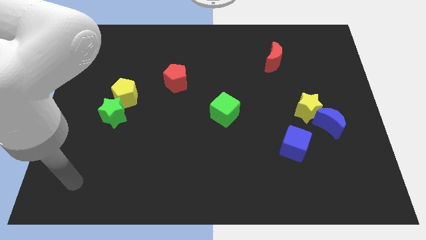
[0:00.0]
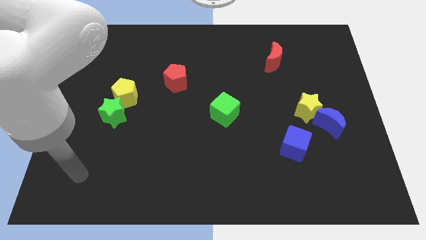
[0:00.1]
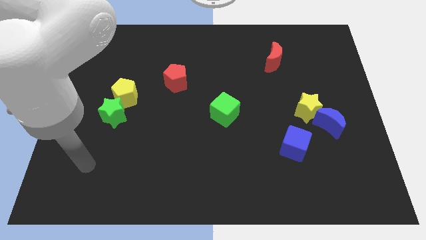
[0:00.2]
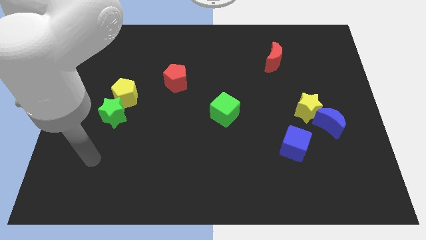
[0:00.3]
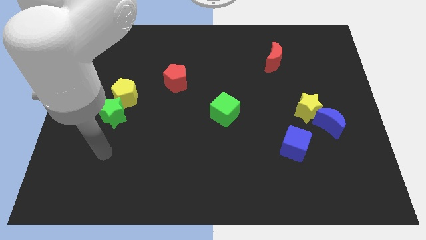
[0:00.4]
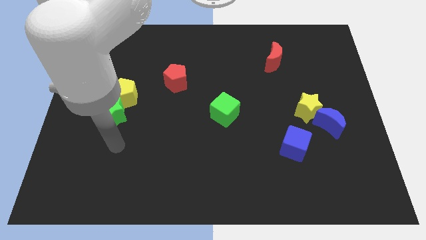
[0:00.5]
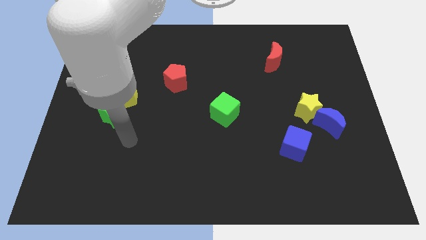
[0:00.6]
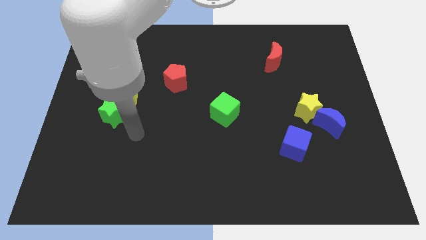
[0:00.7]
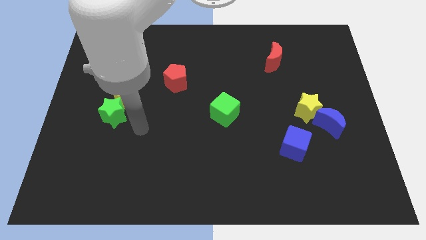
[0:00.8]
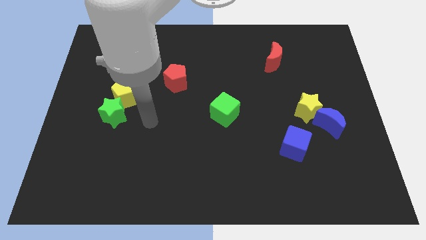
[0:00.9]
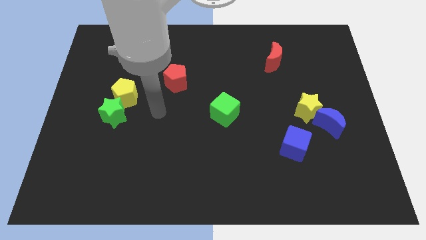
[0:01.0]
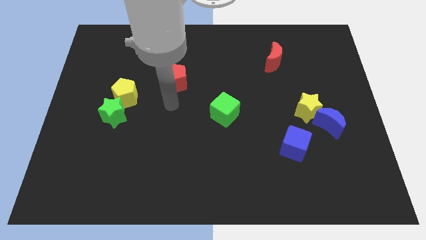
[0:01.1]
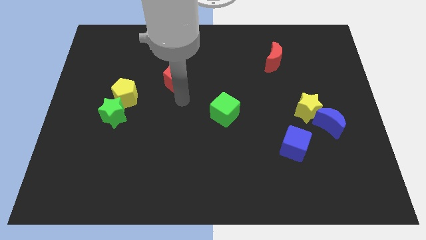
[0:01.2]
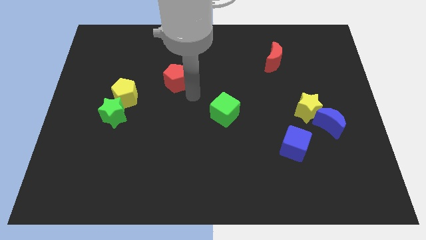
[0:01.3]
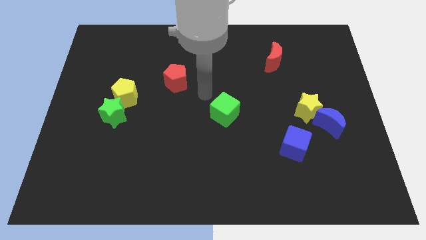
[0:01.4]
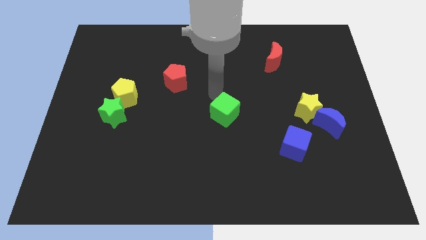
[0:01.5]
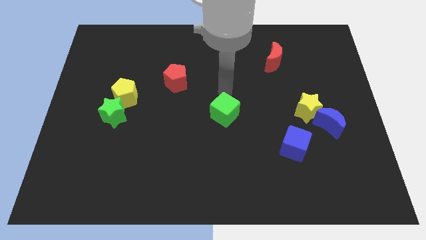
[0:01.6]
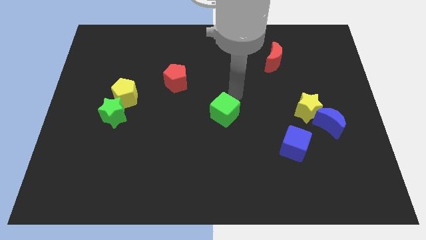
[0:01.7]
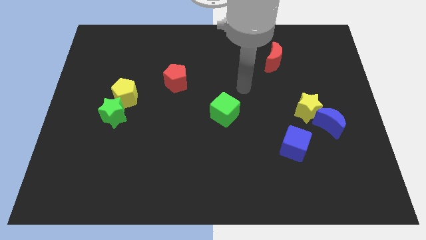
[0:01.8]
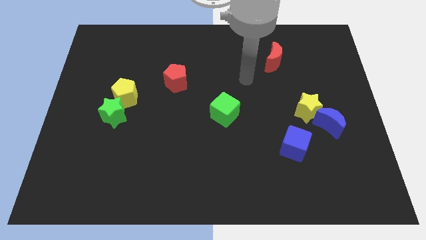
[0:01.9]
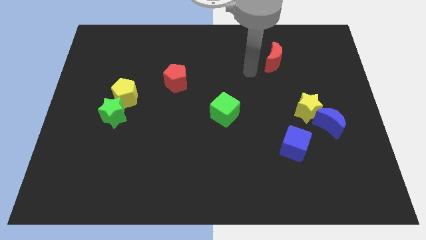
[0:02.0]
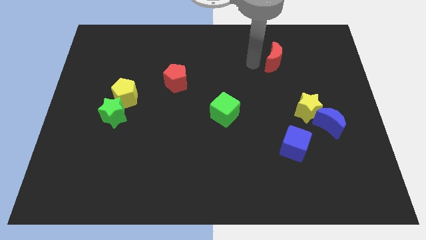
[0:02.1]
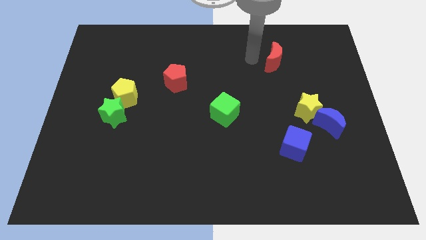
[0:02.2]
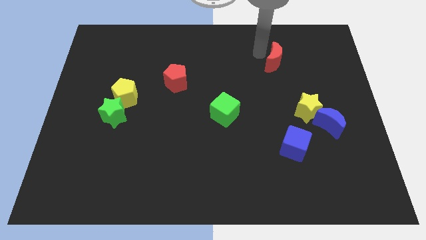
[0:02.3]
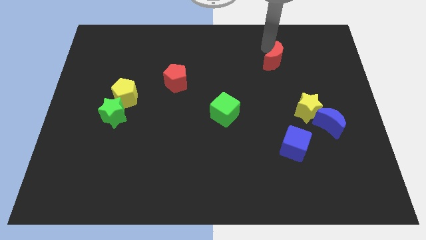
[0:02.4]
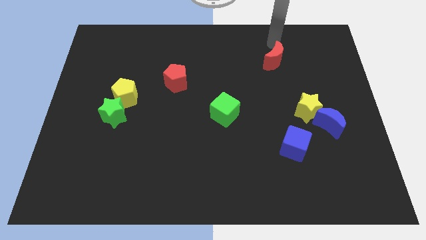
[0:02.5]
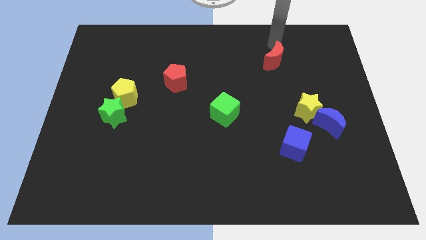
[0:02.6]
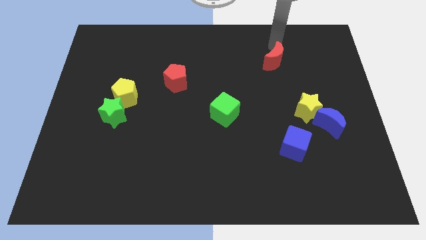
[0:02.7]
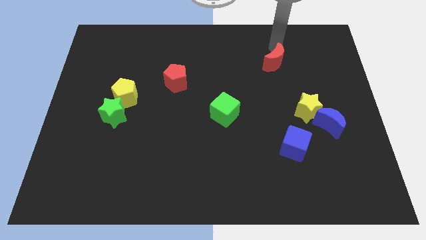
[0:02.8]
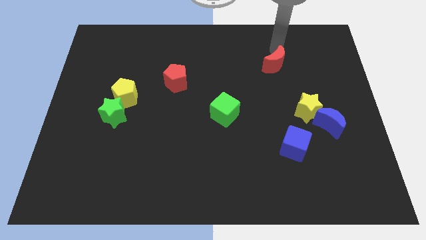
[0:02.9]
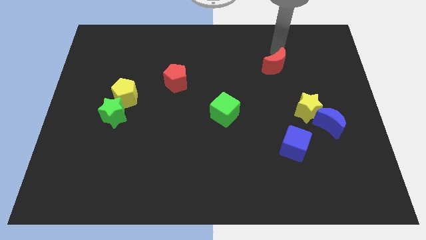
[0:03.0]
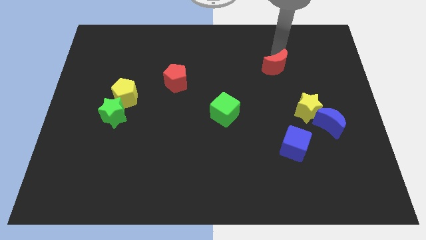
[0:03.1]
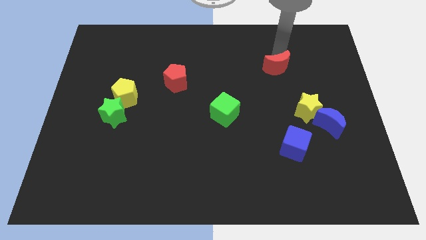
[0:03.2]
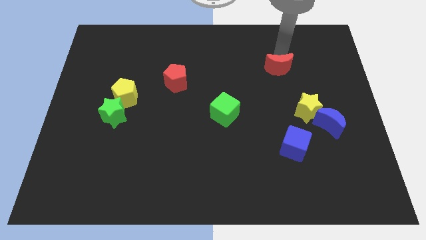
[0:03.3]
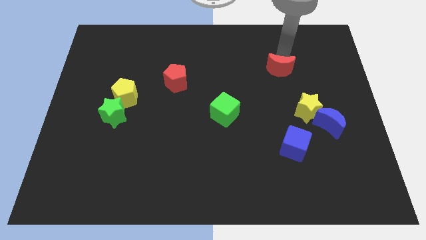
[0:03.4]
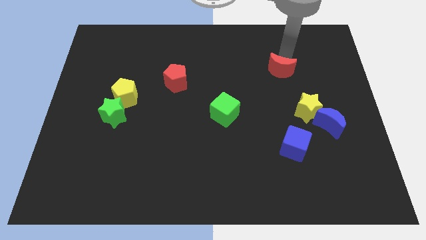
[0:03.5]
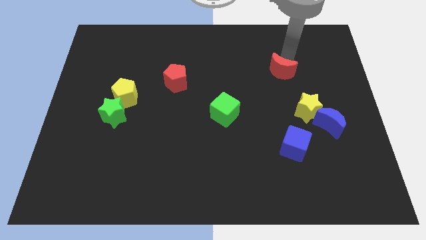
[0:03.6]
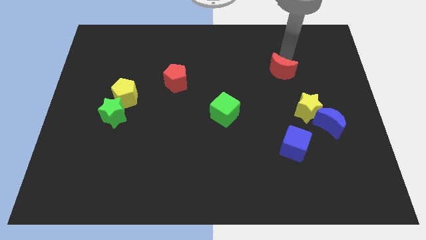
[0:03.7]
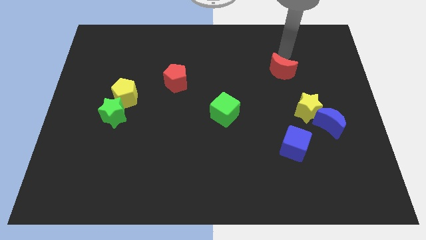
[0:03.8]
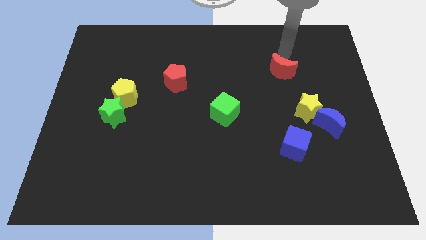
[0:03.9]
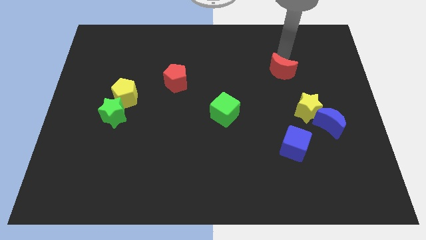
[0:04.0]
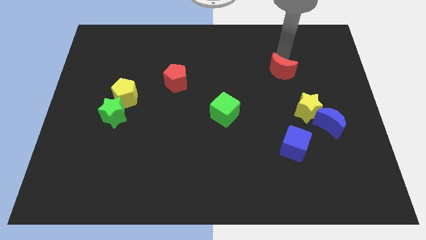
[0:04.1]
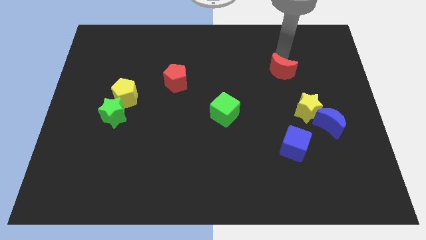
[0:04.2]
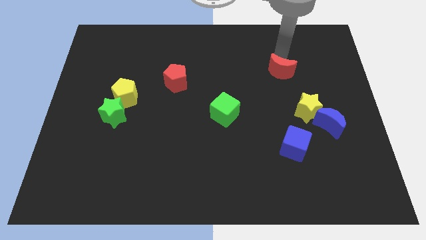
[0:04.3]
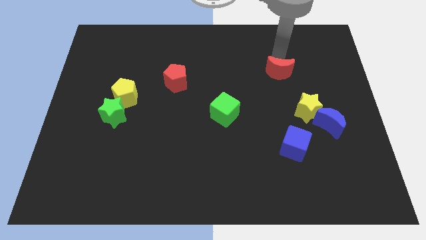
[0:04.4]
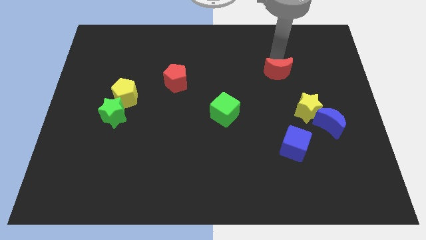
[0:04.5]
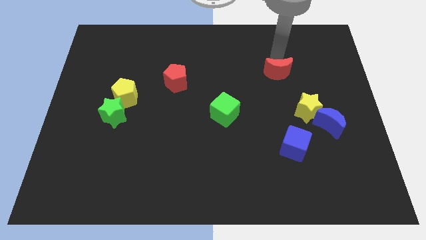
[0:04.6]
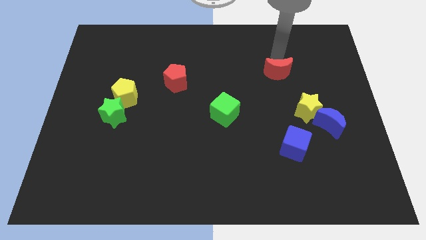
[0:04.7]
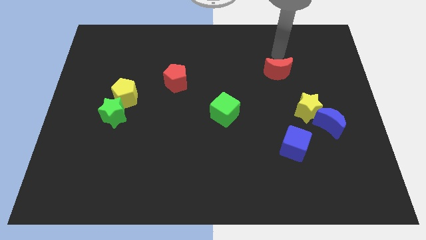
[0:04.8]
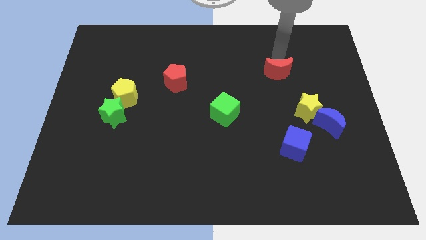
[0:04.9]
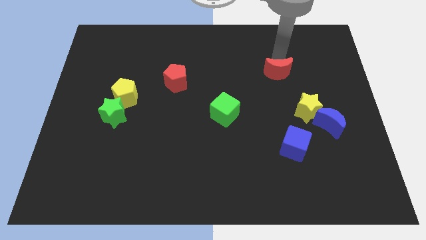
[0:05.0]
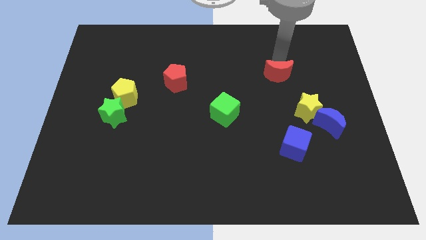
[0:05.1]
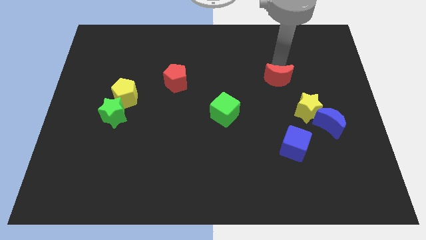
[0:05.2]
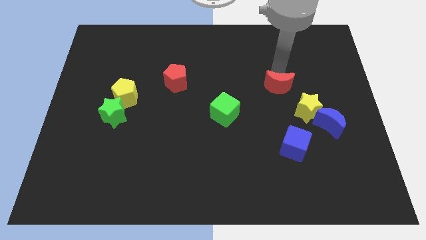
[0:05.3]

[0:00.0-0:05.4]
slightly slide the red moon downwards

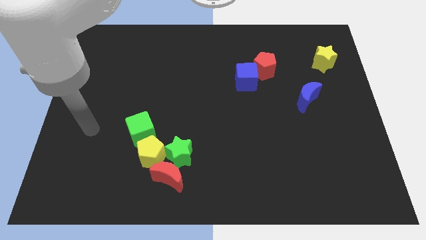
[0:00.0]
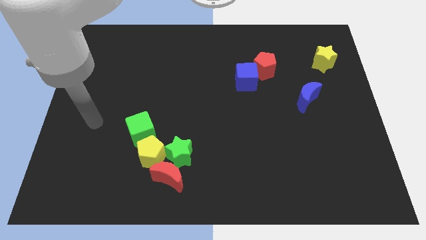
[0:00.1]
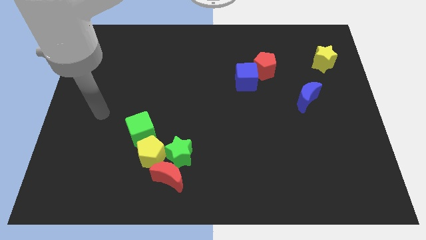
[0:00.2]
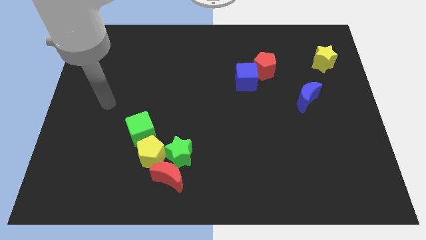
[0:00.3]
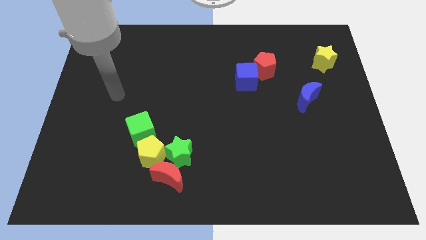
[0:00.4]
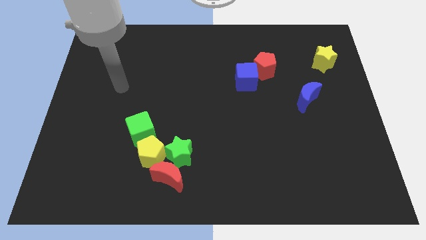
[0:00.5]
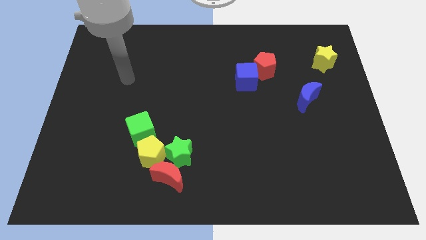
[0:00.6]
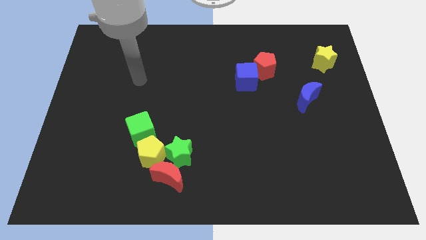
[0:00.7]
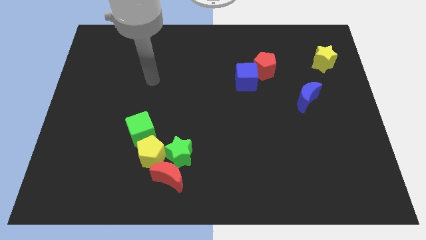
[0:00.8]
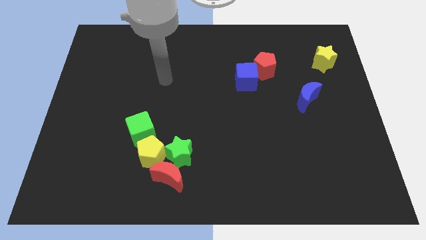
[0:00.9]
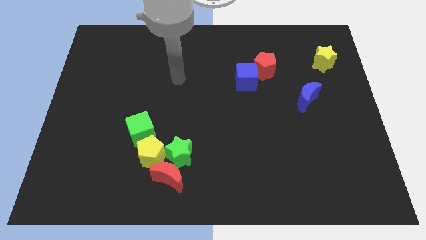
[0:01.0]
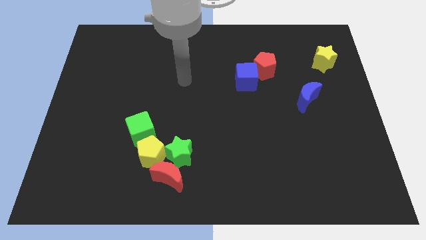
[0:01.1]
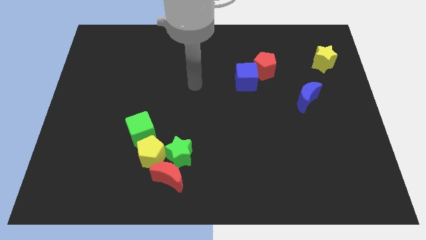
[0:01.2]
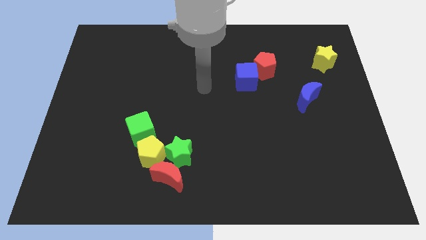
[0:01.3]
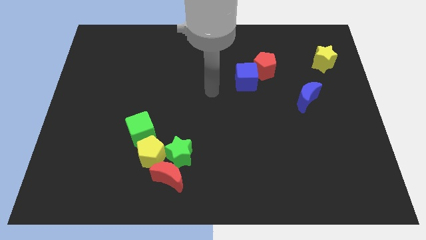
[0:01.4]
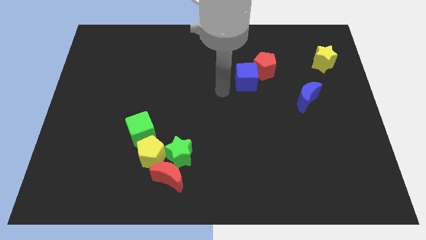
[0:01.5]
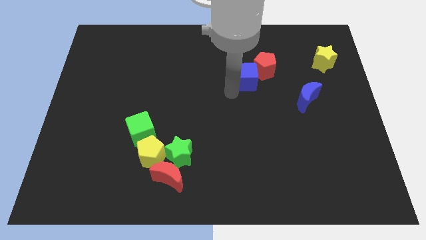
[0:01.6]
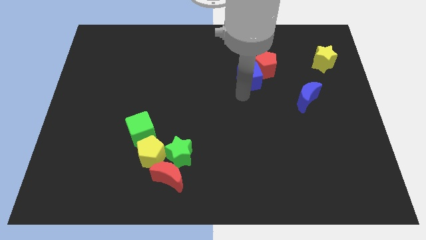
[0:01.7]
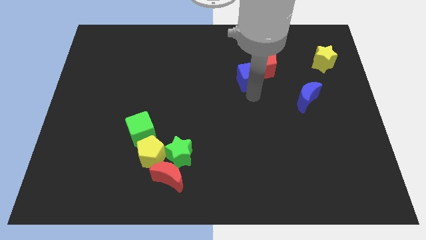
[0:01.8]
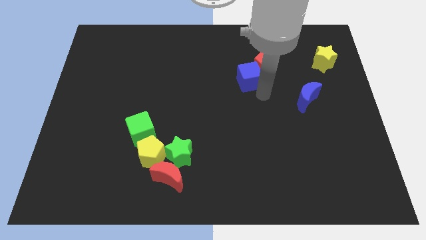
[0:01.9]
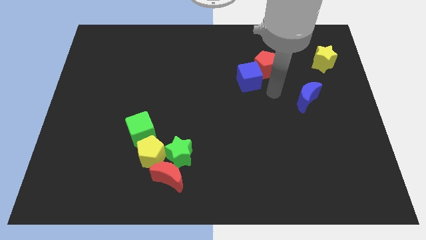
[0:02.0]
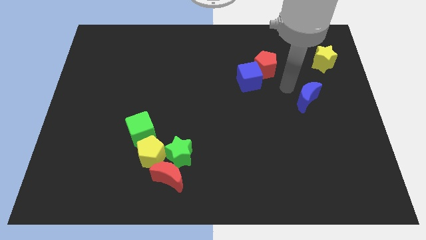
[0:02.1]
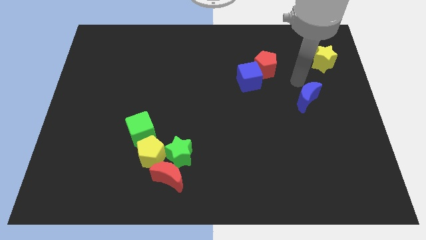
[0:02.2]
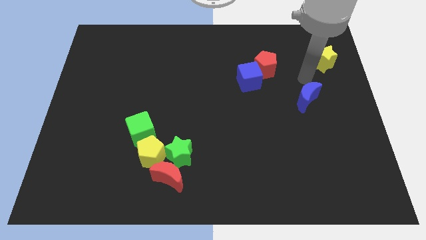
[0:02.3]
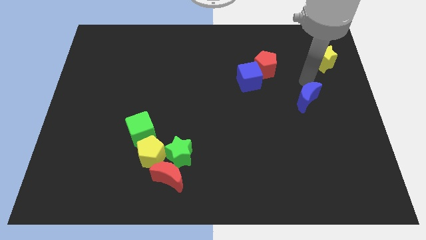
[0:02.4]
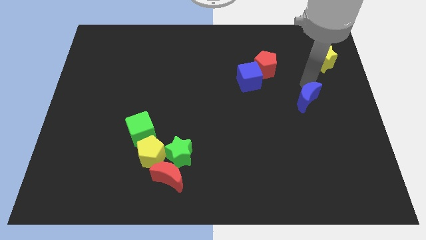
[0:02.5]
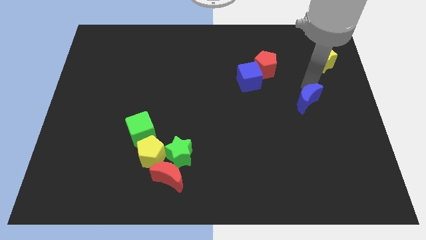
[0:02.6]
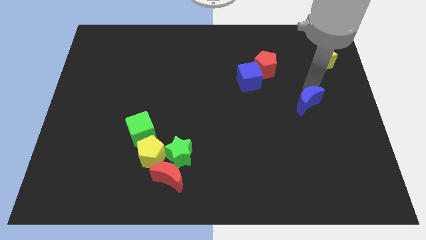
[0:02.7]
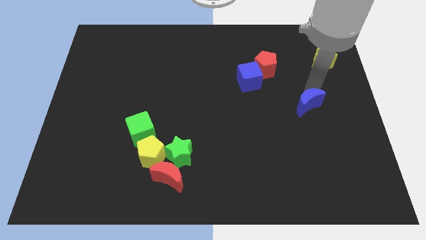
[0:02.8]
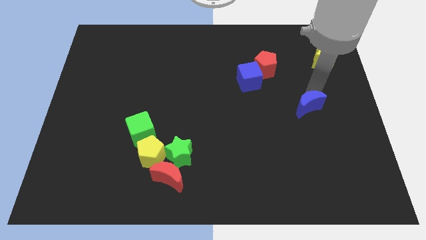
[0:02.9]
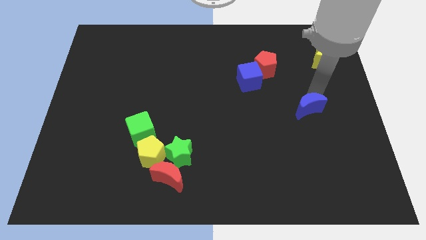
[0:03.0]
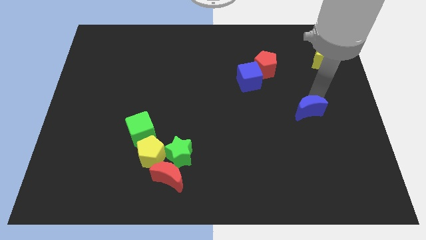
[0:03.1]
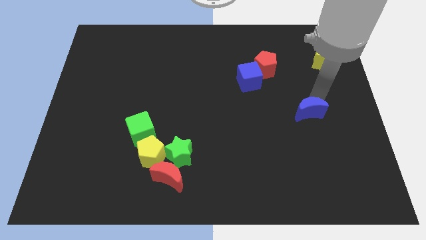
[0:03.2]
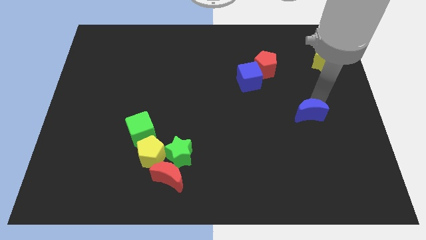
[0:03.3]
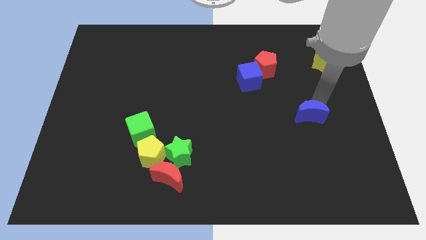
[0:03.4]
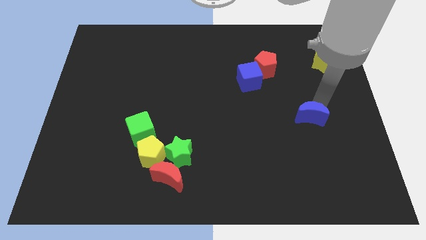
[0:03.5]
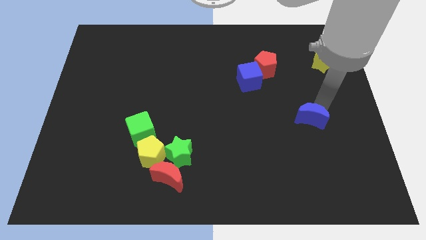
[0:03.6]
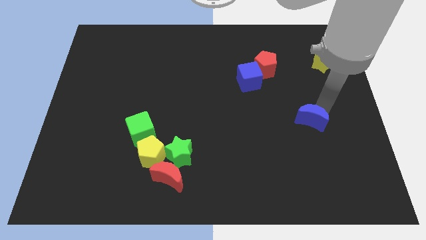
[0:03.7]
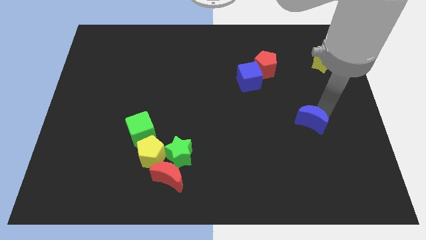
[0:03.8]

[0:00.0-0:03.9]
move the blue moon a little down
